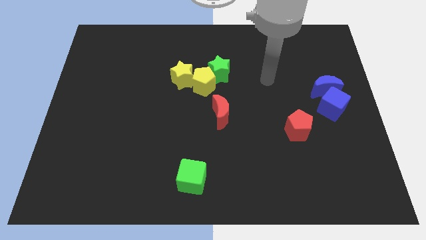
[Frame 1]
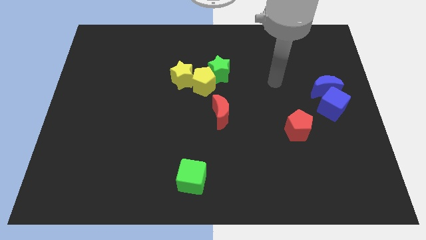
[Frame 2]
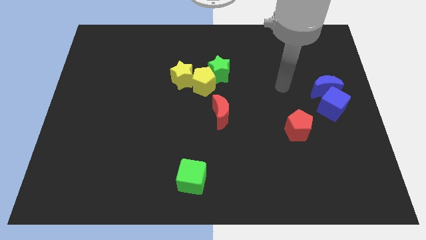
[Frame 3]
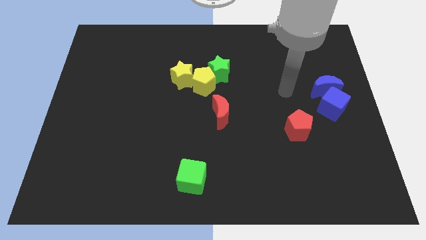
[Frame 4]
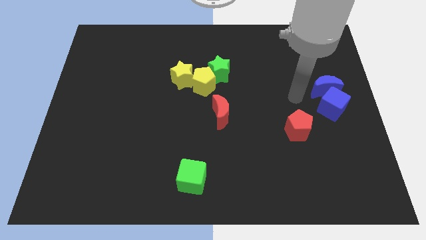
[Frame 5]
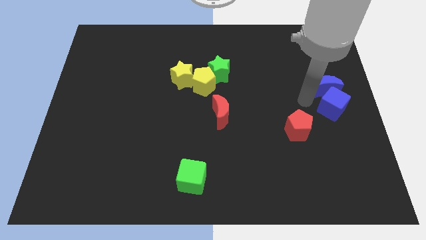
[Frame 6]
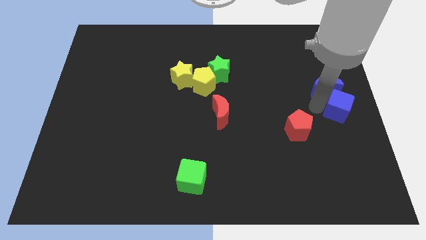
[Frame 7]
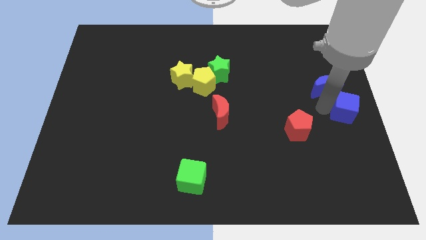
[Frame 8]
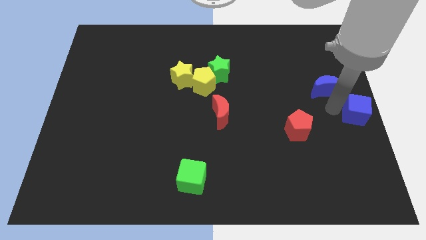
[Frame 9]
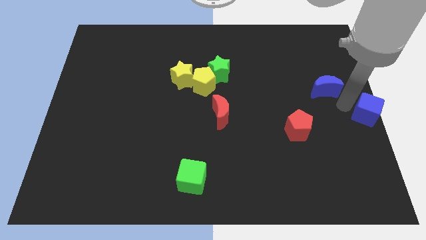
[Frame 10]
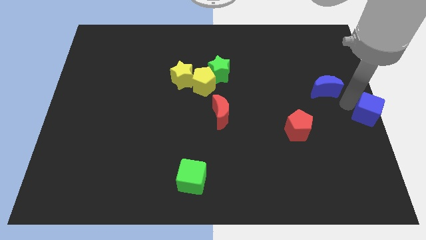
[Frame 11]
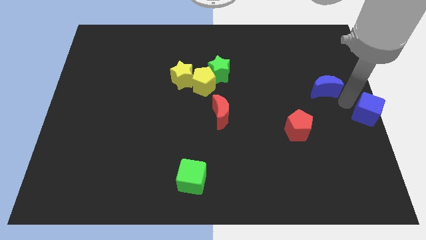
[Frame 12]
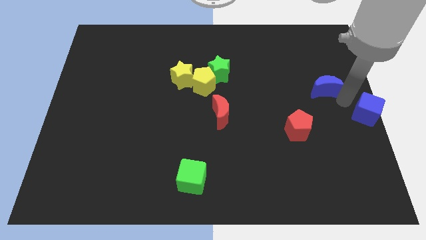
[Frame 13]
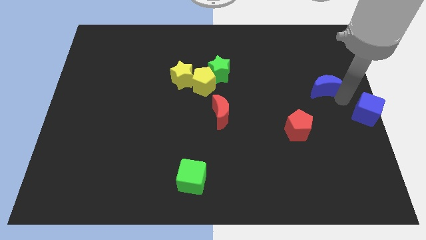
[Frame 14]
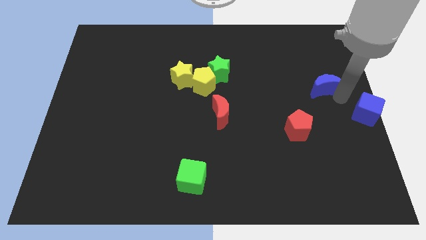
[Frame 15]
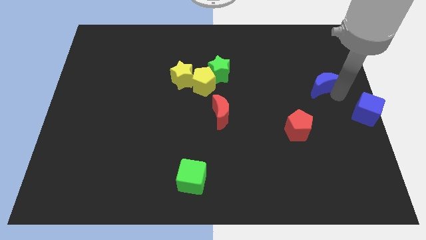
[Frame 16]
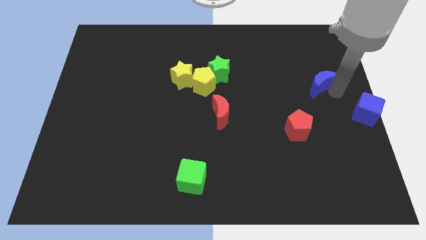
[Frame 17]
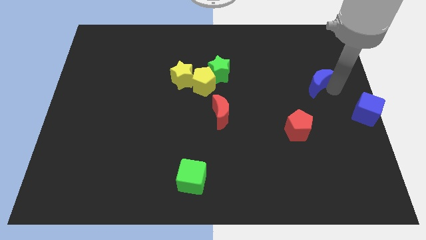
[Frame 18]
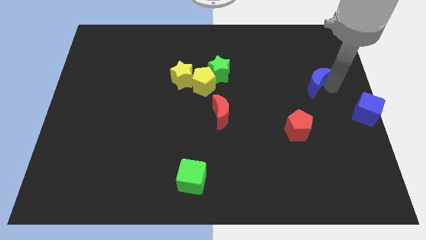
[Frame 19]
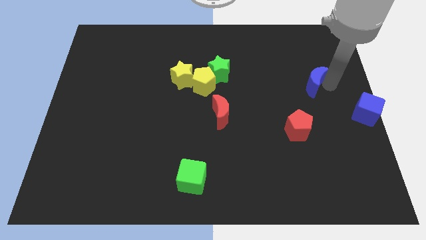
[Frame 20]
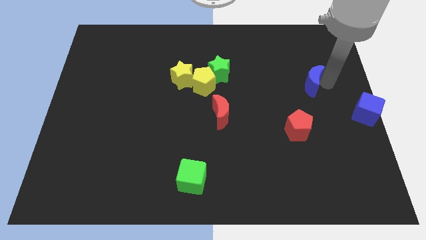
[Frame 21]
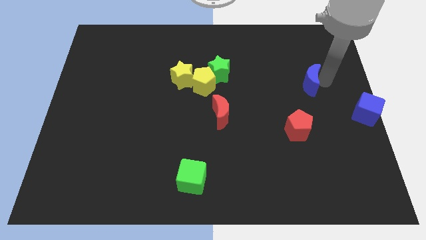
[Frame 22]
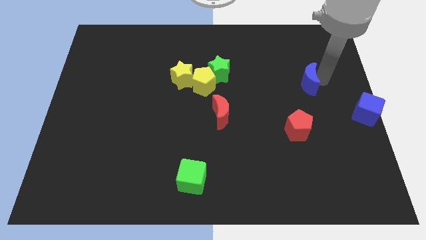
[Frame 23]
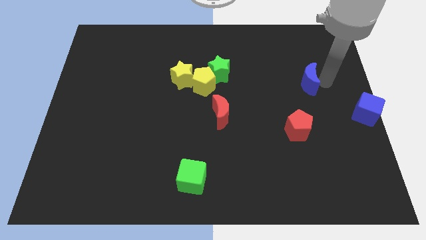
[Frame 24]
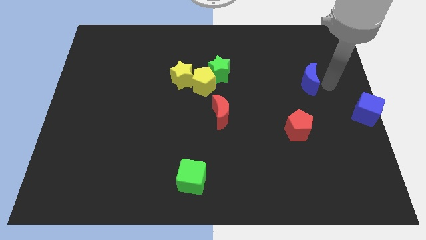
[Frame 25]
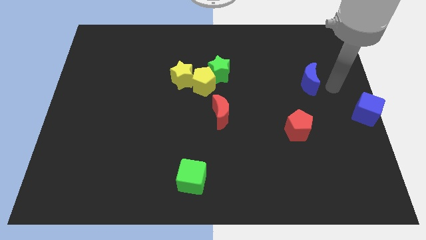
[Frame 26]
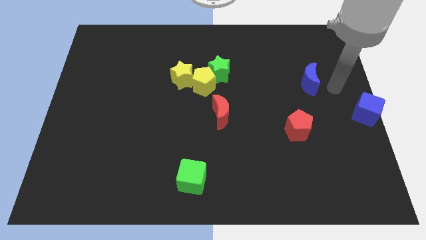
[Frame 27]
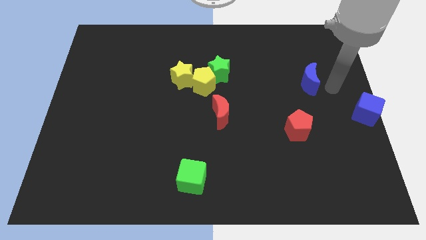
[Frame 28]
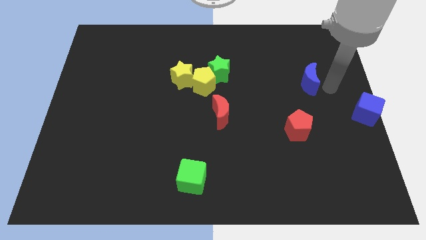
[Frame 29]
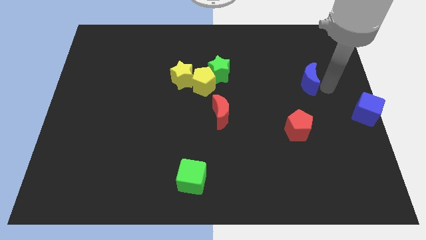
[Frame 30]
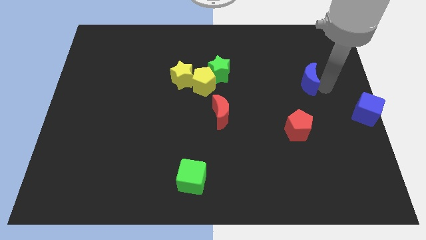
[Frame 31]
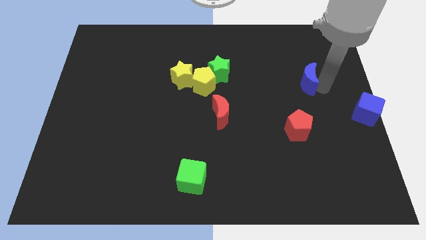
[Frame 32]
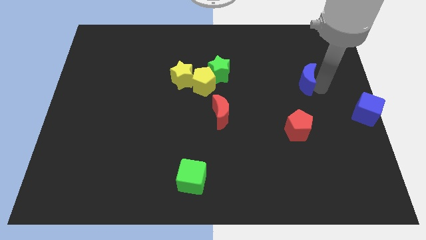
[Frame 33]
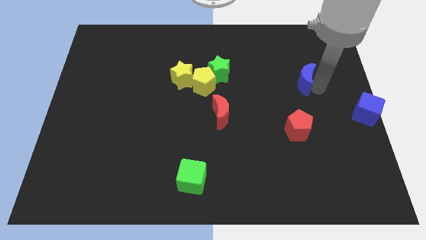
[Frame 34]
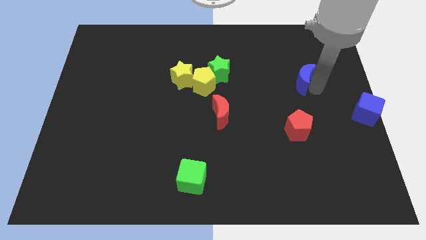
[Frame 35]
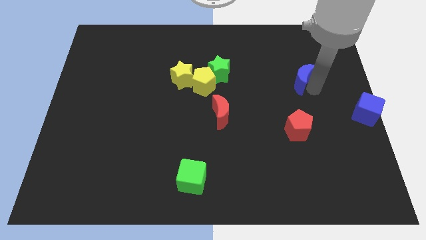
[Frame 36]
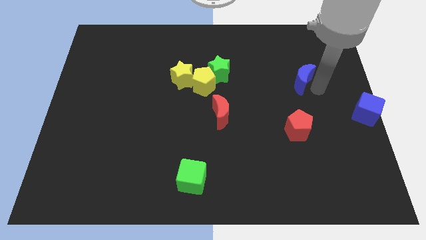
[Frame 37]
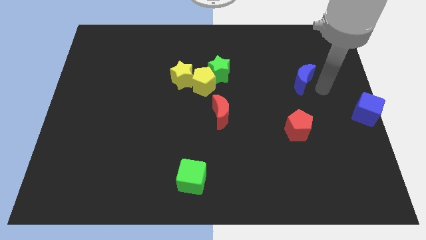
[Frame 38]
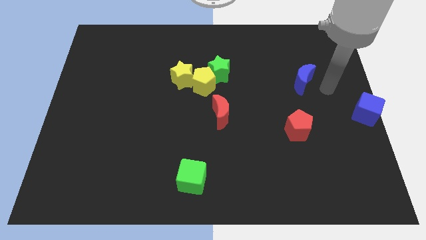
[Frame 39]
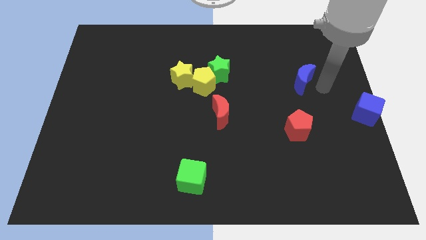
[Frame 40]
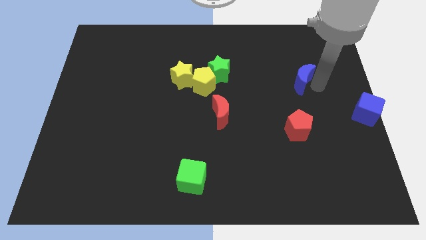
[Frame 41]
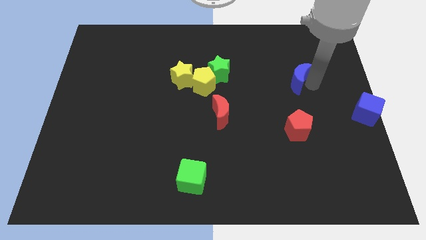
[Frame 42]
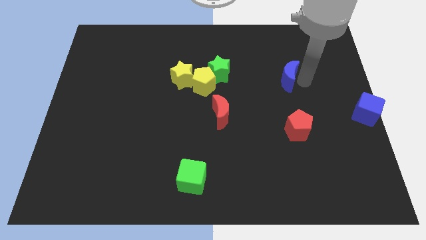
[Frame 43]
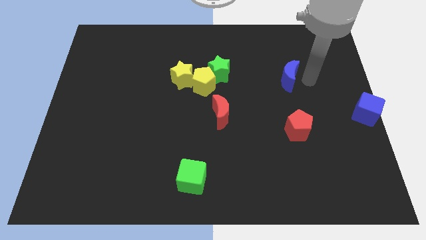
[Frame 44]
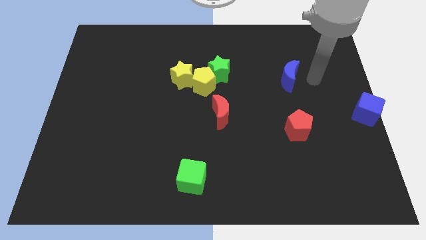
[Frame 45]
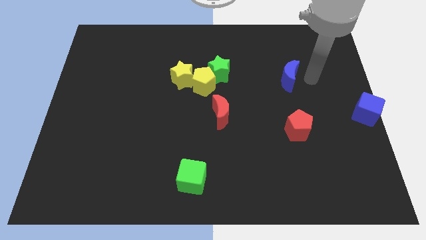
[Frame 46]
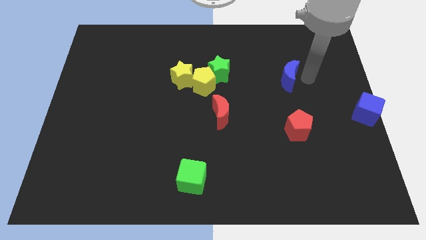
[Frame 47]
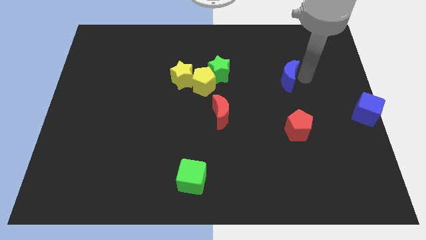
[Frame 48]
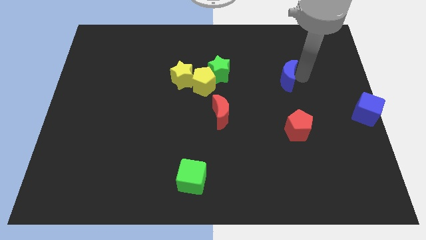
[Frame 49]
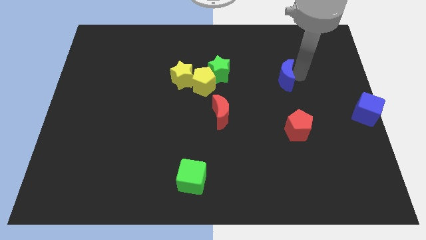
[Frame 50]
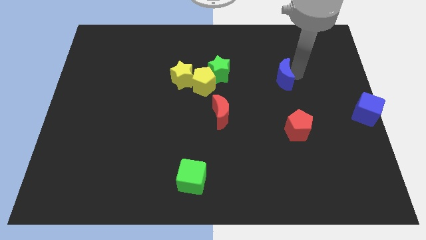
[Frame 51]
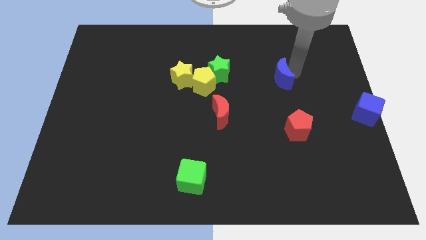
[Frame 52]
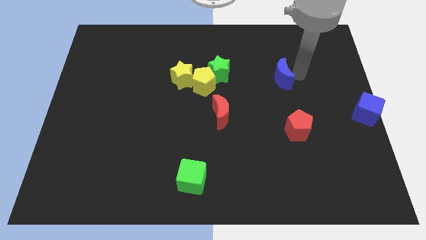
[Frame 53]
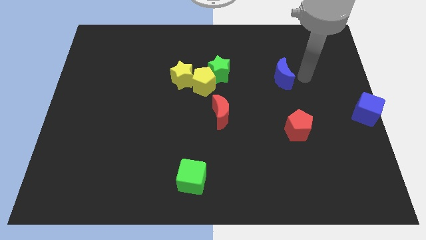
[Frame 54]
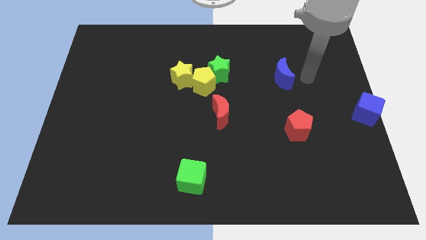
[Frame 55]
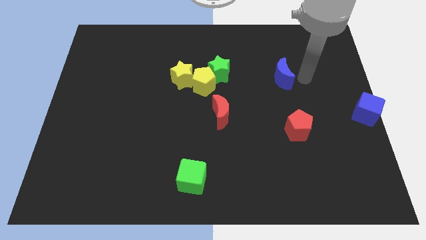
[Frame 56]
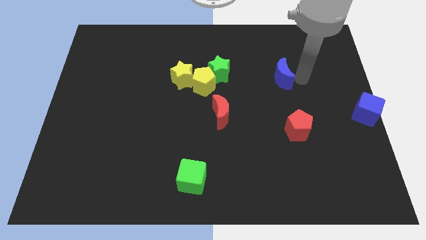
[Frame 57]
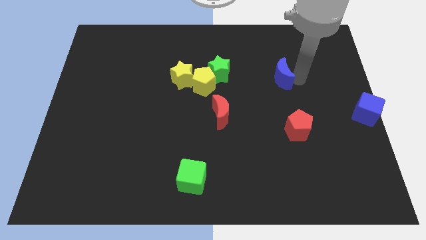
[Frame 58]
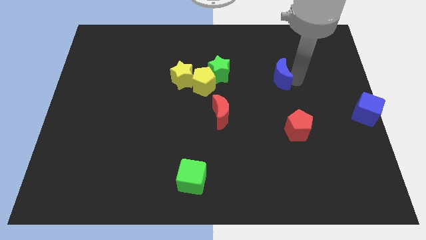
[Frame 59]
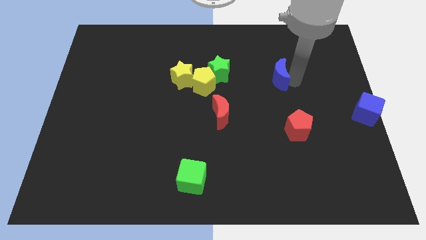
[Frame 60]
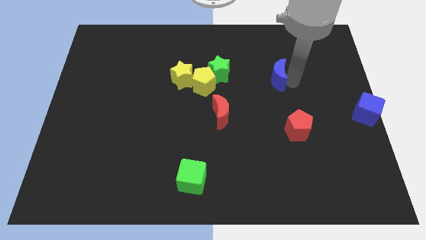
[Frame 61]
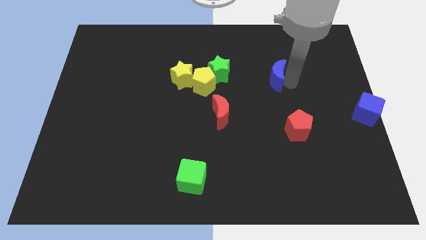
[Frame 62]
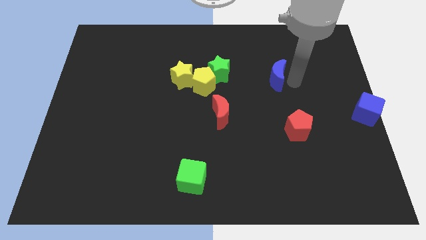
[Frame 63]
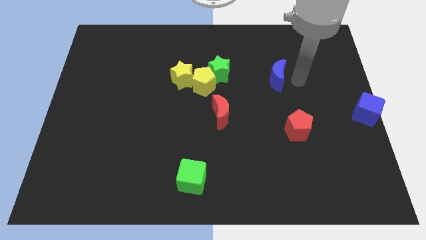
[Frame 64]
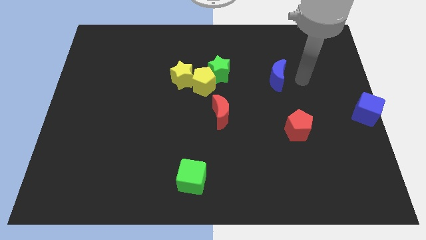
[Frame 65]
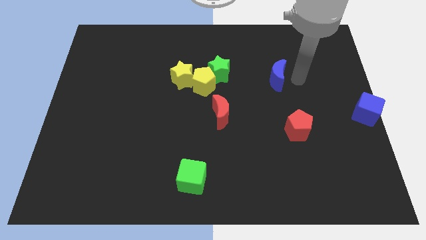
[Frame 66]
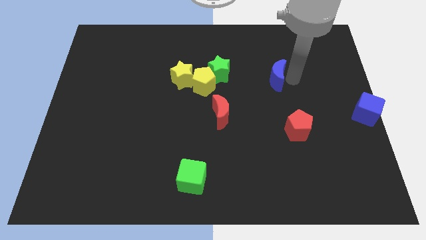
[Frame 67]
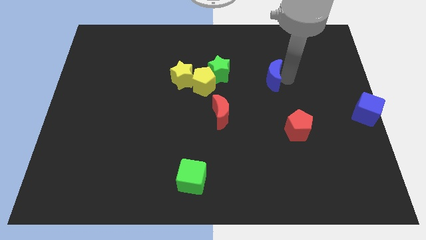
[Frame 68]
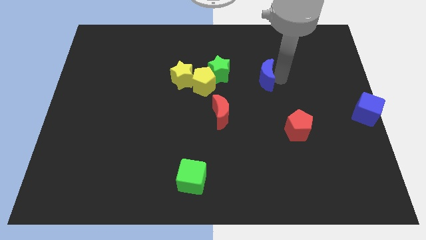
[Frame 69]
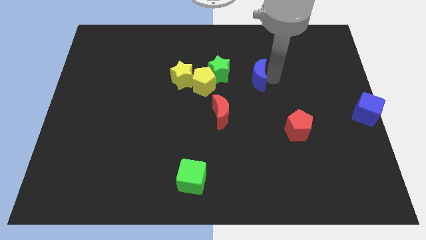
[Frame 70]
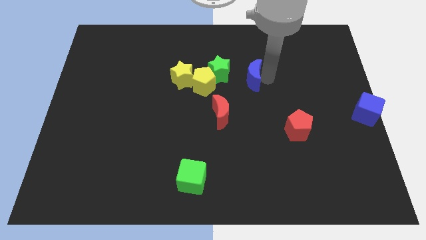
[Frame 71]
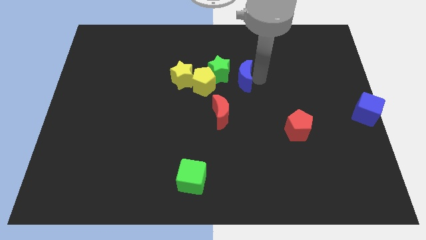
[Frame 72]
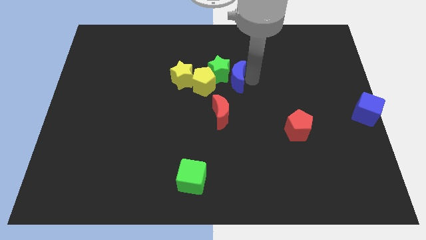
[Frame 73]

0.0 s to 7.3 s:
move the blue moon to the green star
